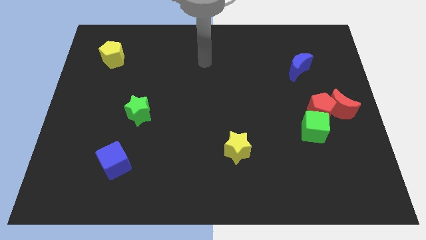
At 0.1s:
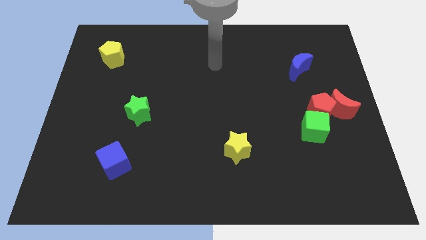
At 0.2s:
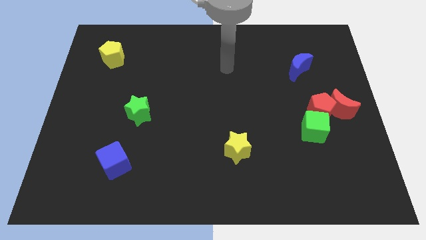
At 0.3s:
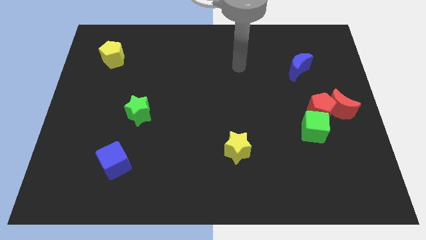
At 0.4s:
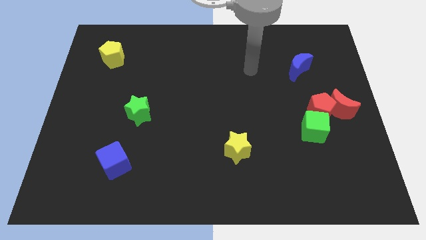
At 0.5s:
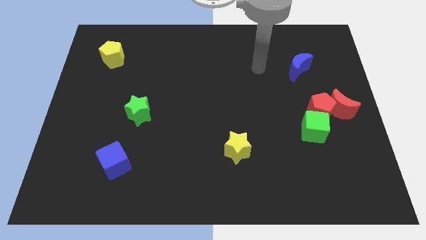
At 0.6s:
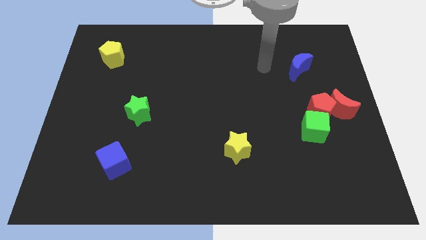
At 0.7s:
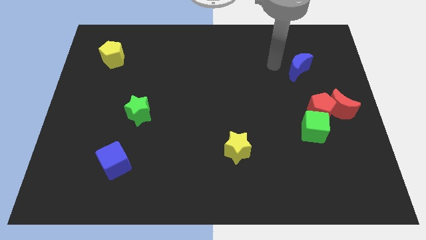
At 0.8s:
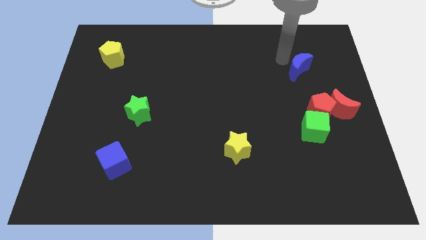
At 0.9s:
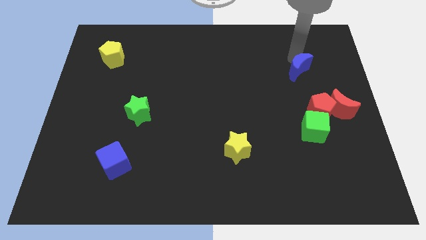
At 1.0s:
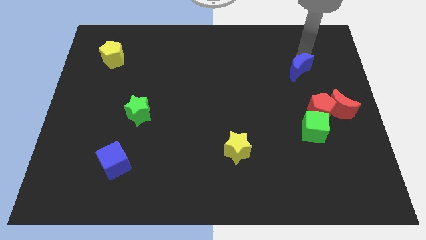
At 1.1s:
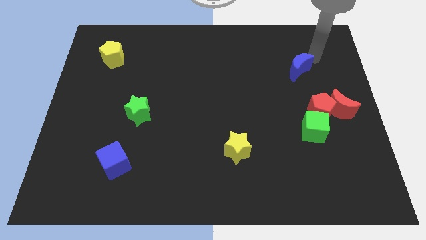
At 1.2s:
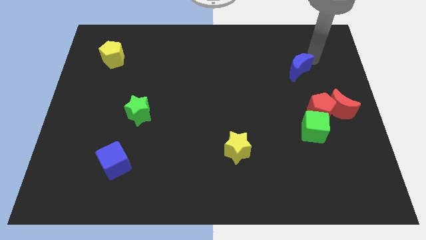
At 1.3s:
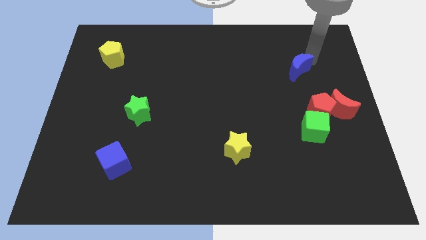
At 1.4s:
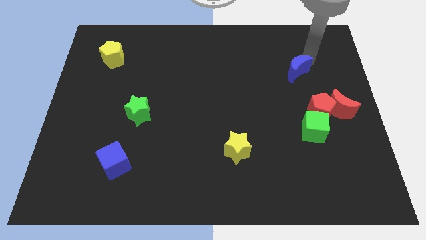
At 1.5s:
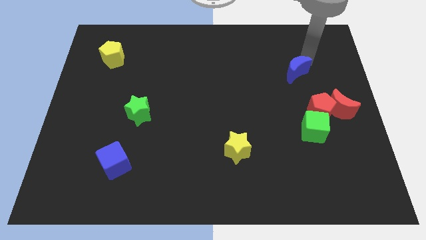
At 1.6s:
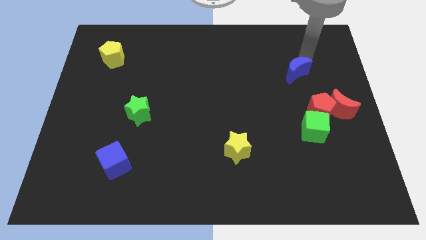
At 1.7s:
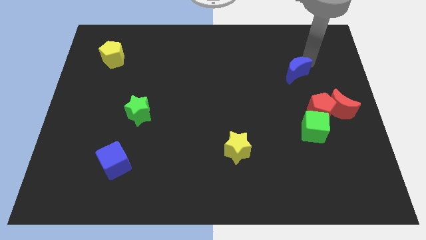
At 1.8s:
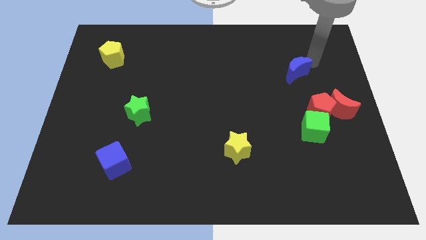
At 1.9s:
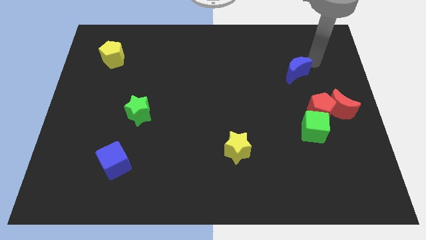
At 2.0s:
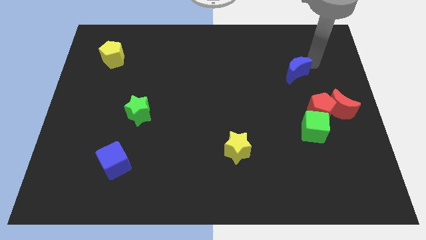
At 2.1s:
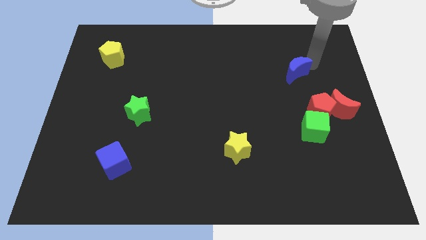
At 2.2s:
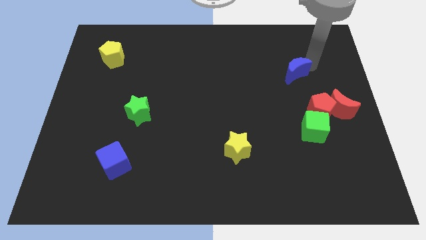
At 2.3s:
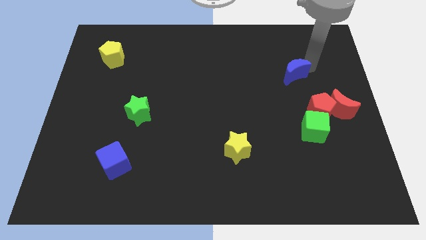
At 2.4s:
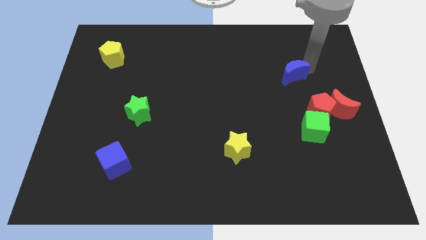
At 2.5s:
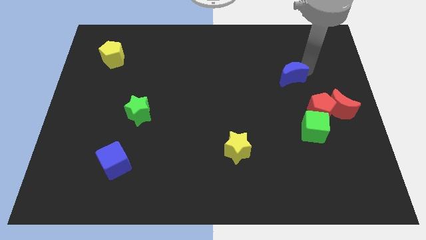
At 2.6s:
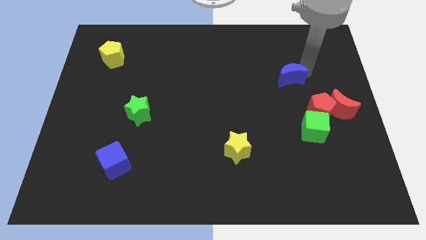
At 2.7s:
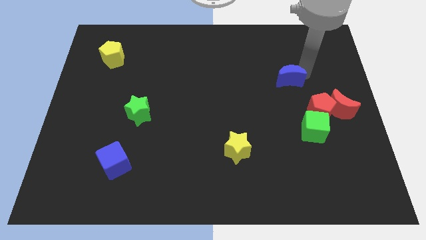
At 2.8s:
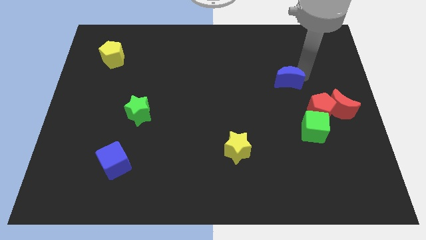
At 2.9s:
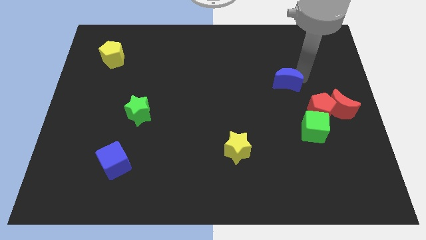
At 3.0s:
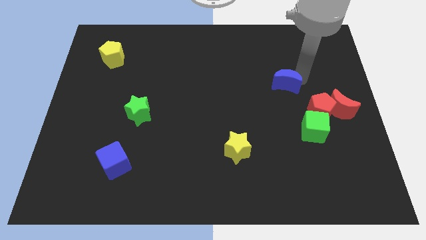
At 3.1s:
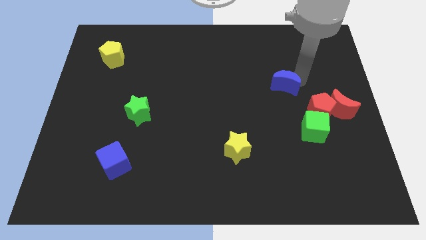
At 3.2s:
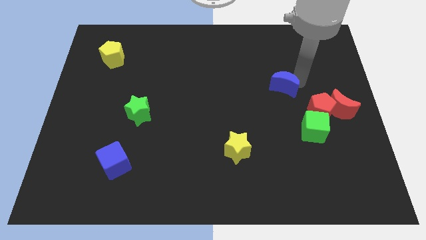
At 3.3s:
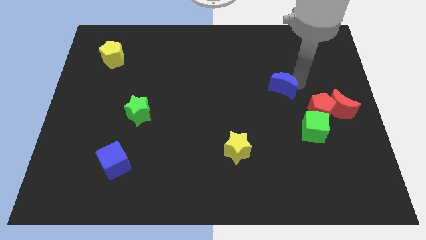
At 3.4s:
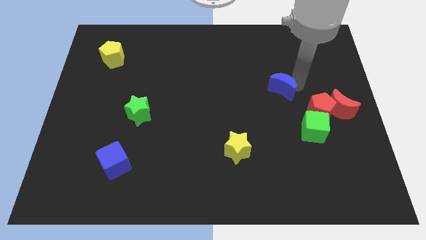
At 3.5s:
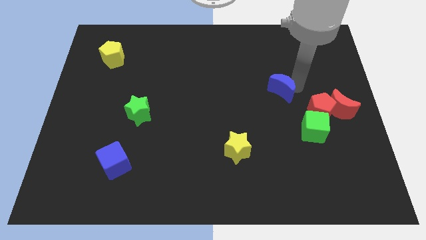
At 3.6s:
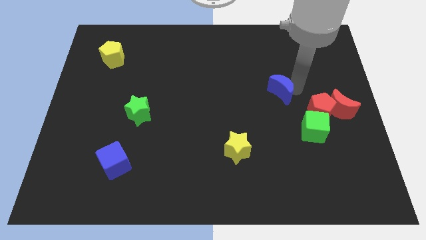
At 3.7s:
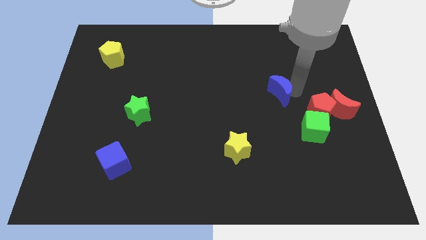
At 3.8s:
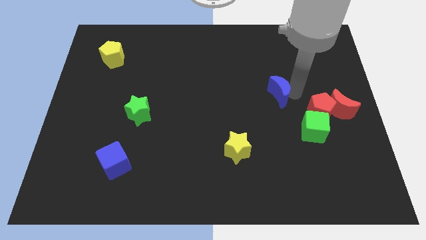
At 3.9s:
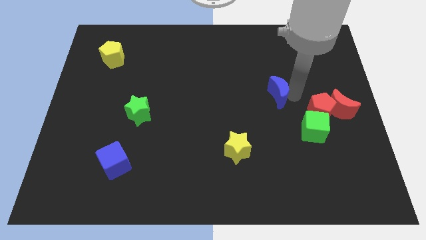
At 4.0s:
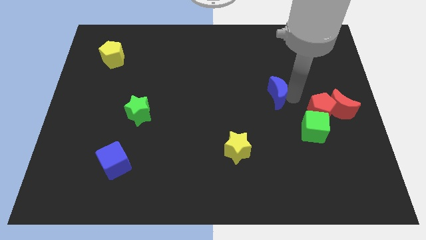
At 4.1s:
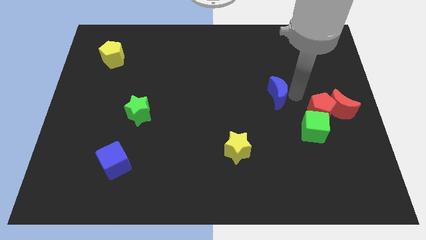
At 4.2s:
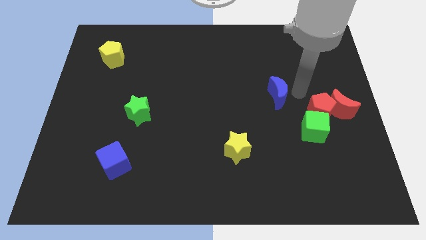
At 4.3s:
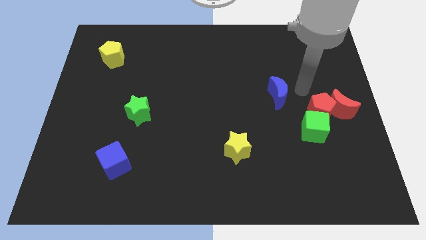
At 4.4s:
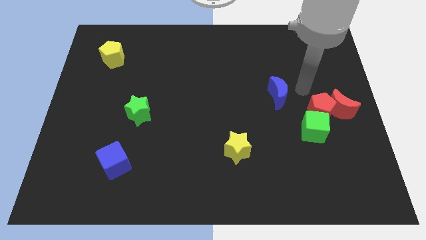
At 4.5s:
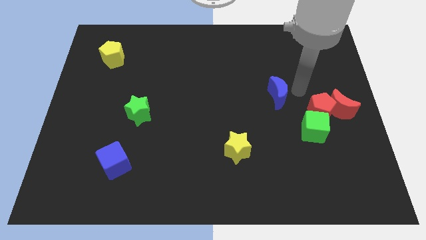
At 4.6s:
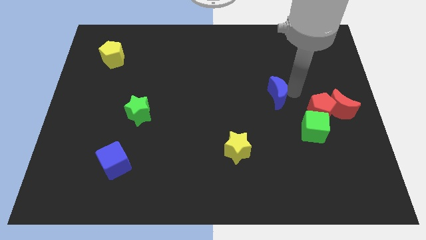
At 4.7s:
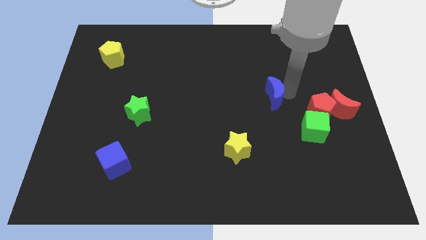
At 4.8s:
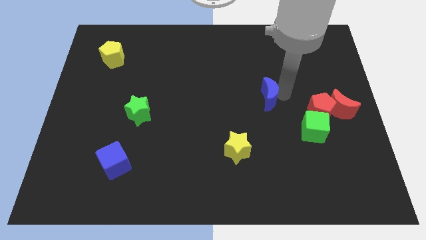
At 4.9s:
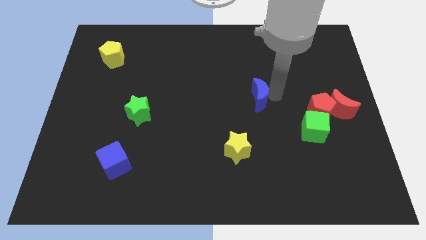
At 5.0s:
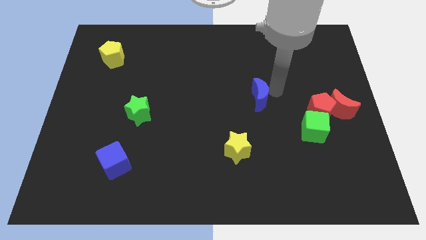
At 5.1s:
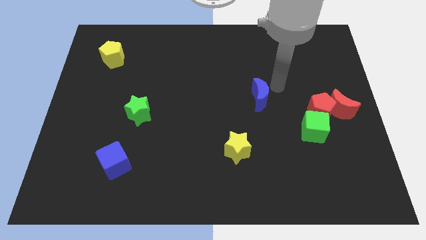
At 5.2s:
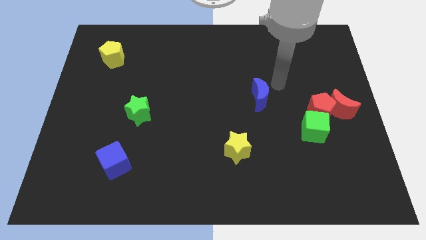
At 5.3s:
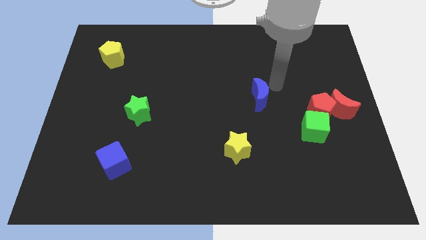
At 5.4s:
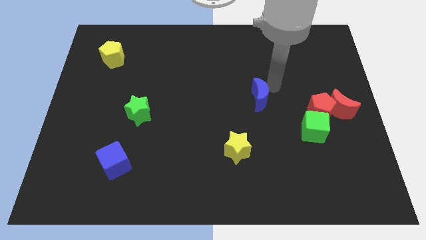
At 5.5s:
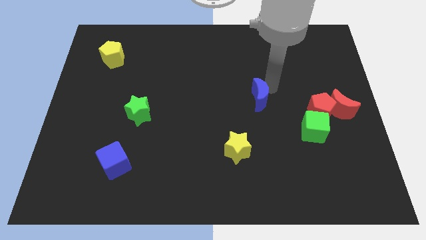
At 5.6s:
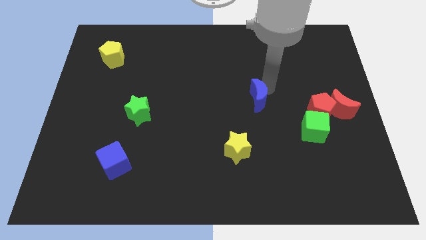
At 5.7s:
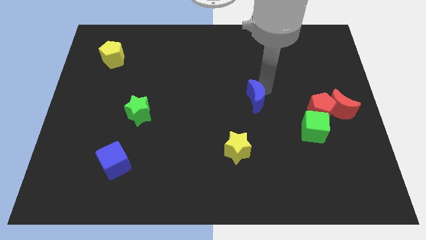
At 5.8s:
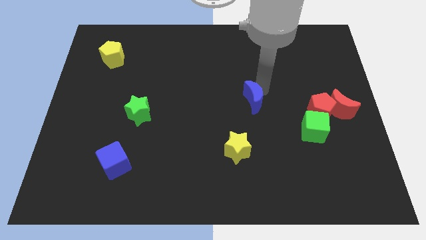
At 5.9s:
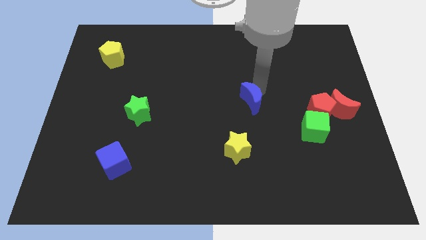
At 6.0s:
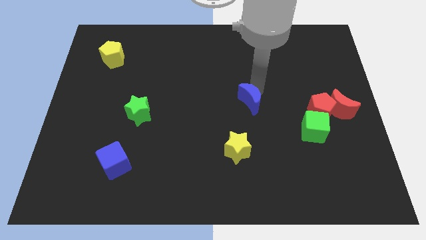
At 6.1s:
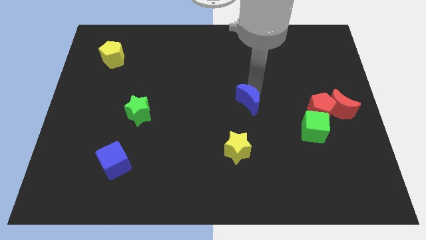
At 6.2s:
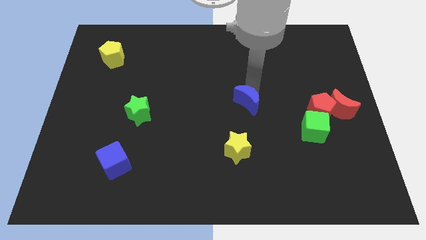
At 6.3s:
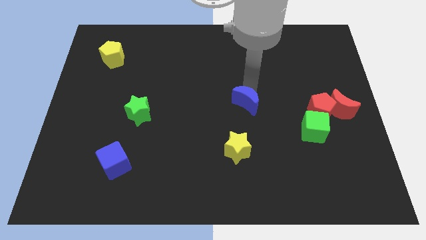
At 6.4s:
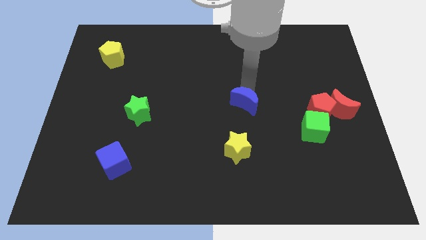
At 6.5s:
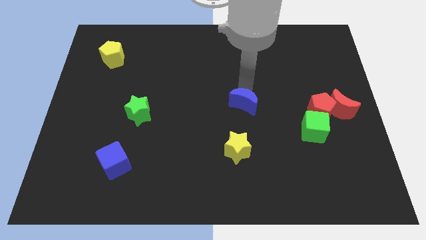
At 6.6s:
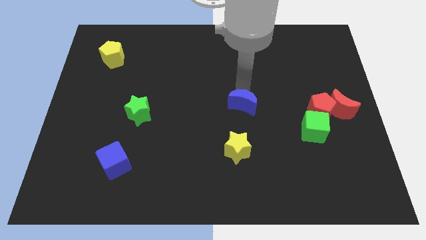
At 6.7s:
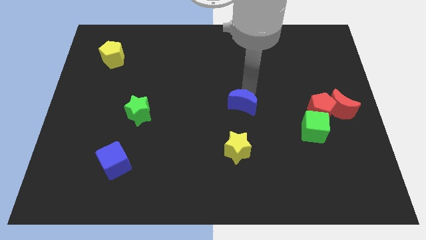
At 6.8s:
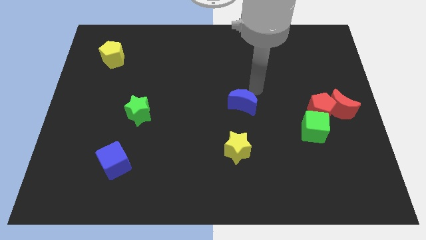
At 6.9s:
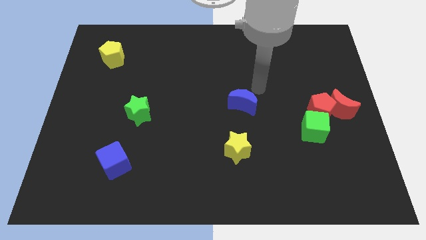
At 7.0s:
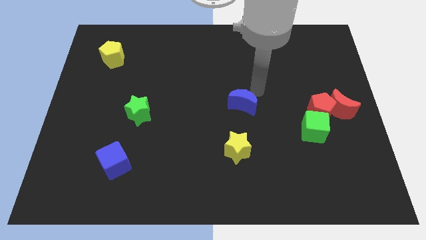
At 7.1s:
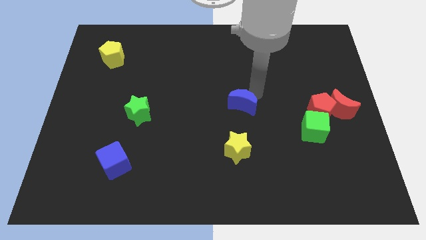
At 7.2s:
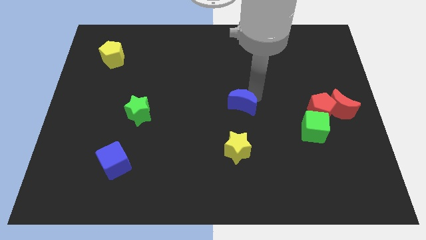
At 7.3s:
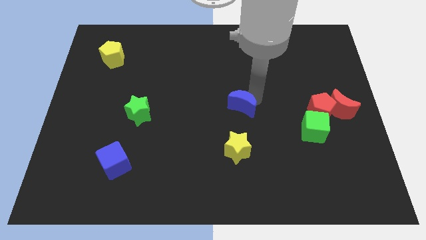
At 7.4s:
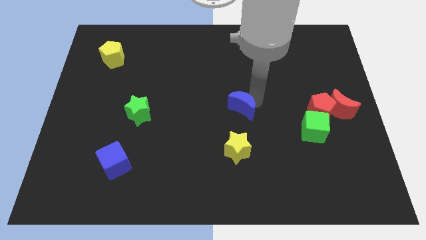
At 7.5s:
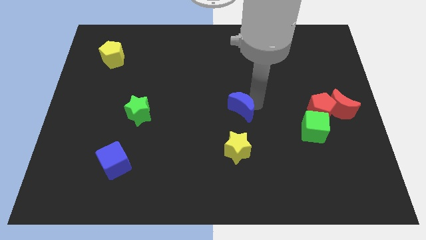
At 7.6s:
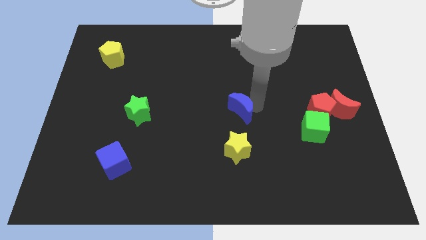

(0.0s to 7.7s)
push the blue moon down and left diagonally

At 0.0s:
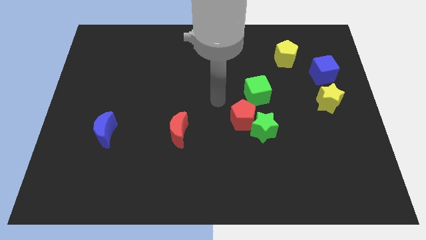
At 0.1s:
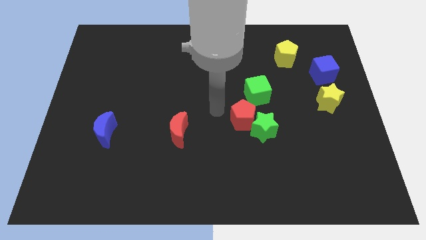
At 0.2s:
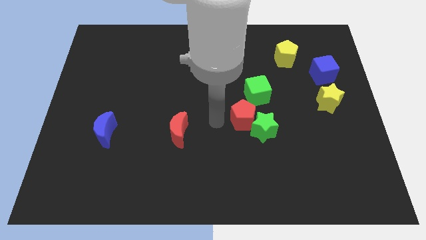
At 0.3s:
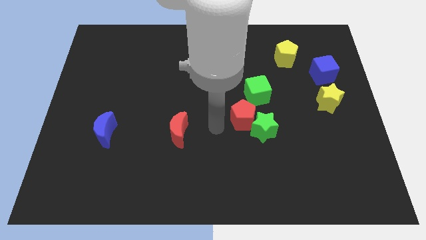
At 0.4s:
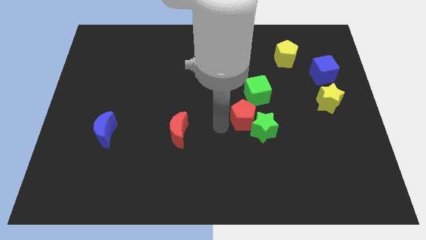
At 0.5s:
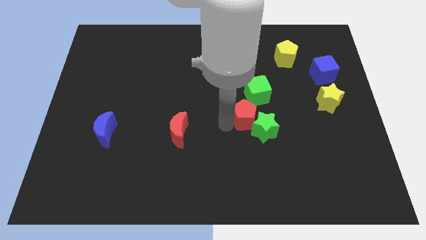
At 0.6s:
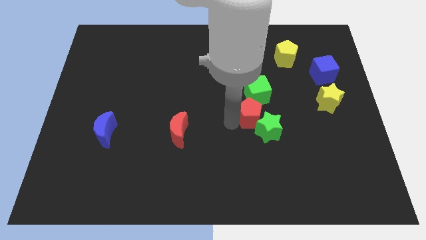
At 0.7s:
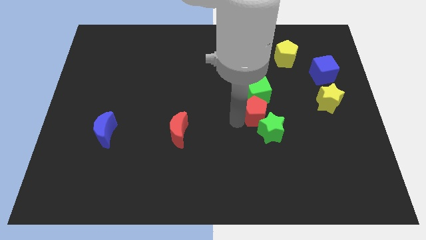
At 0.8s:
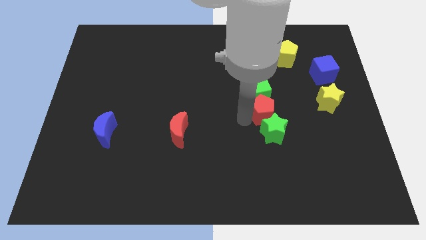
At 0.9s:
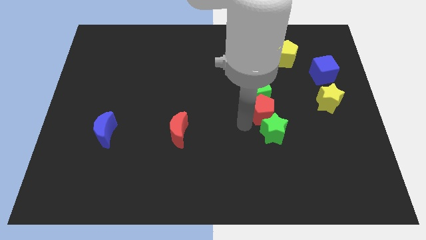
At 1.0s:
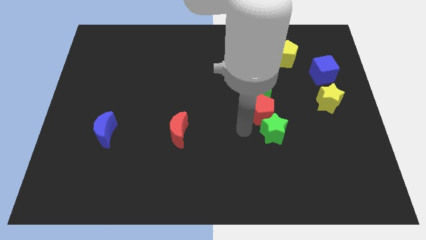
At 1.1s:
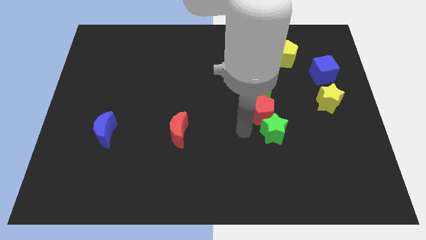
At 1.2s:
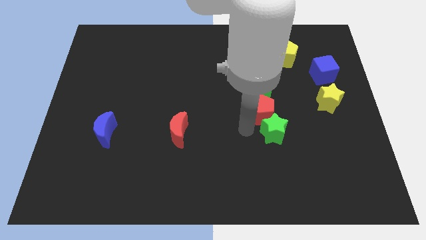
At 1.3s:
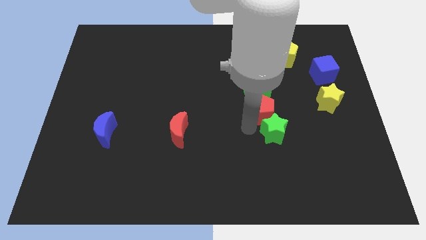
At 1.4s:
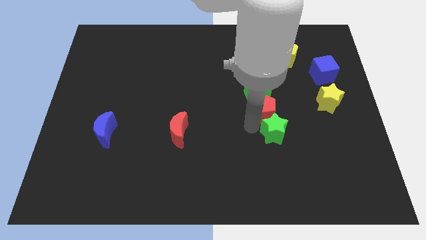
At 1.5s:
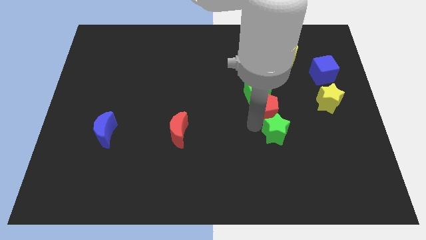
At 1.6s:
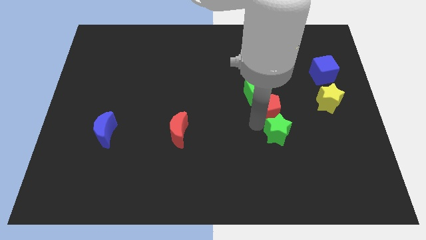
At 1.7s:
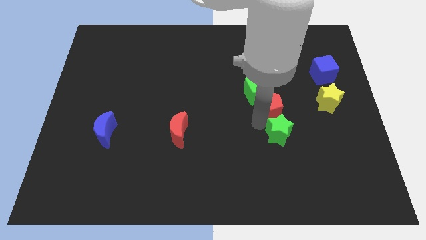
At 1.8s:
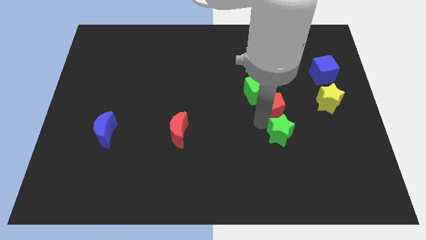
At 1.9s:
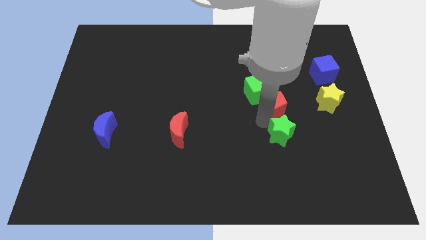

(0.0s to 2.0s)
slide the red pentagon somewhat up and right diagonally
